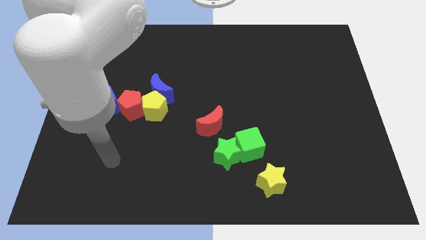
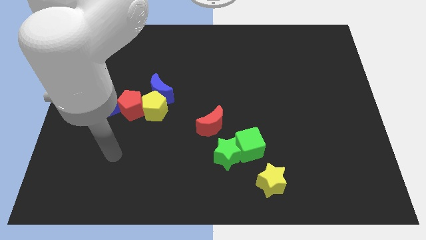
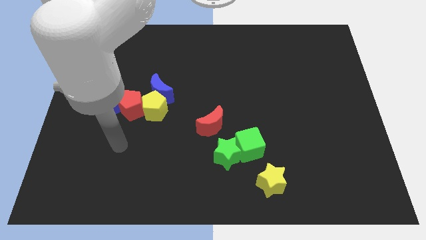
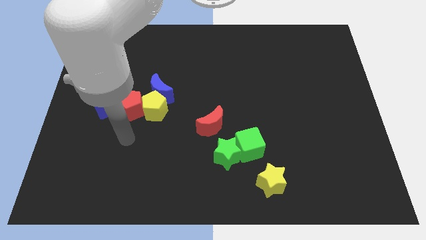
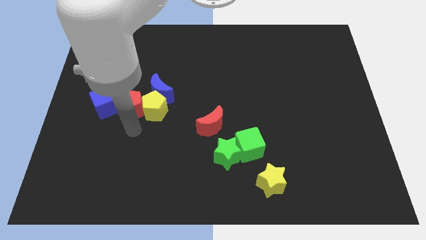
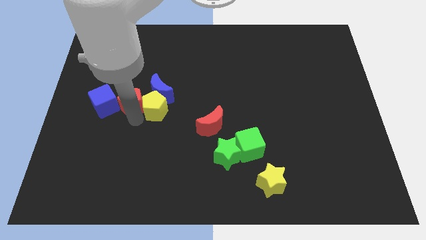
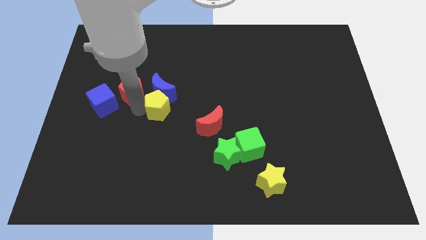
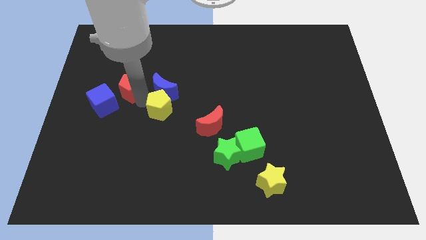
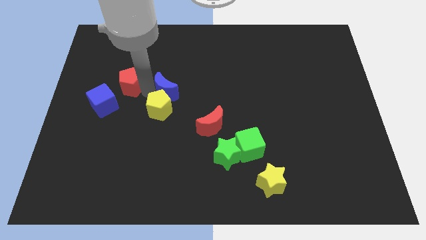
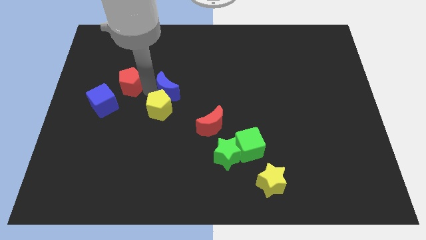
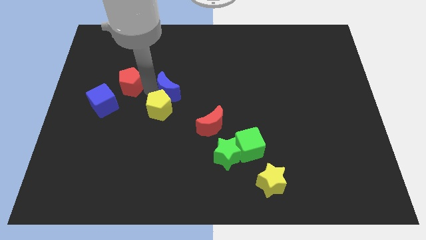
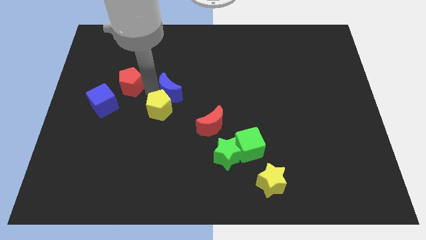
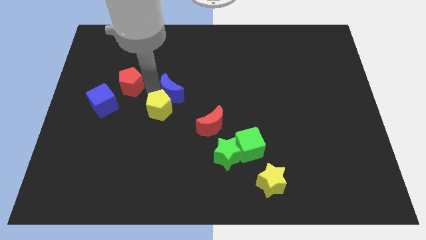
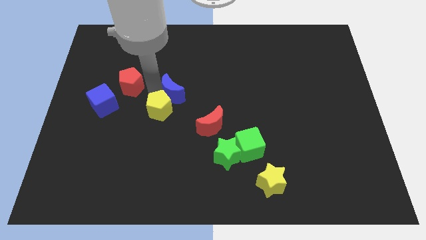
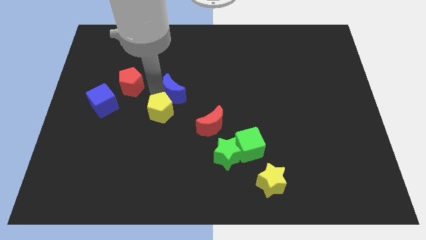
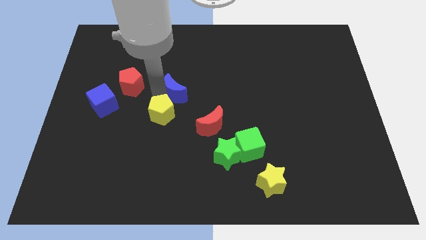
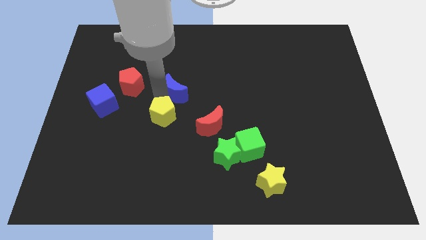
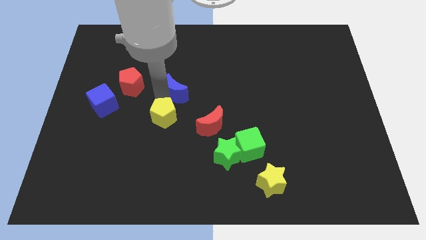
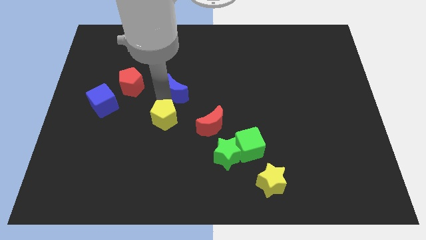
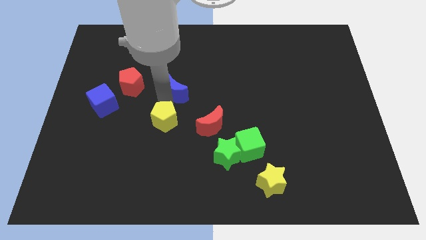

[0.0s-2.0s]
pull the yellow pentagon apart from the blue moon and red pentagon

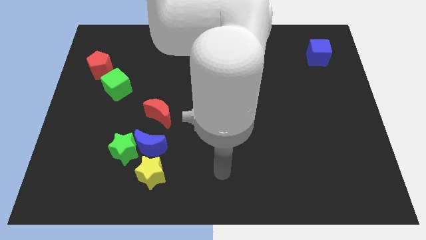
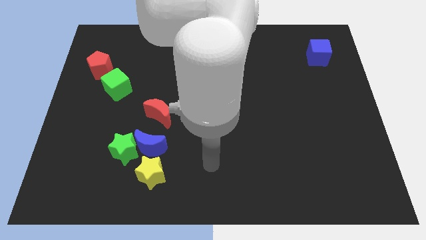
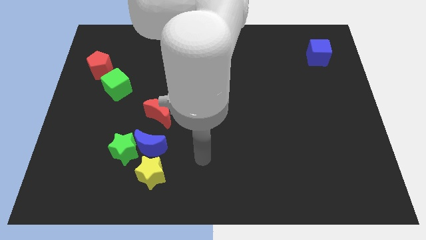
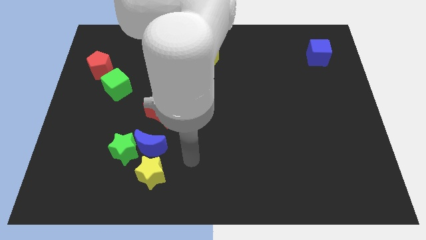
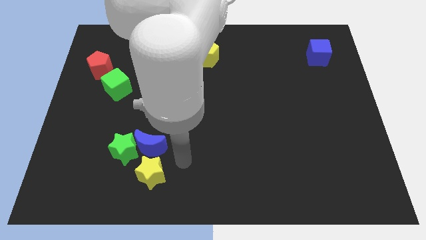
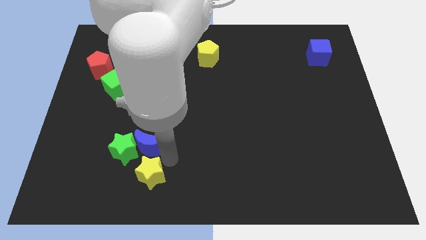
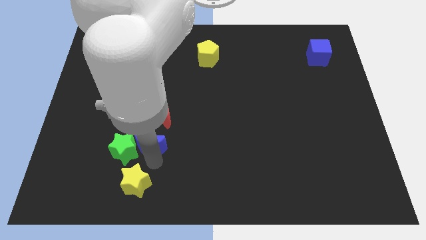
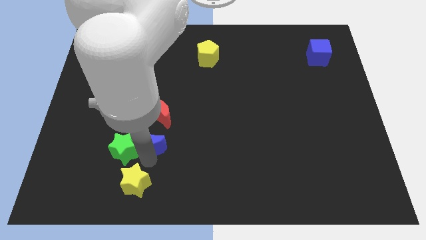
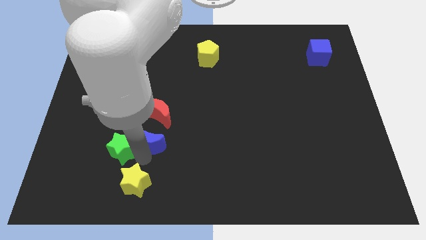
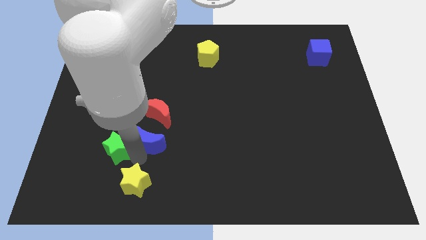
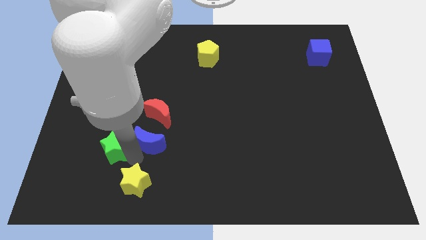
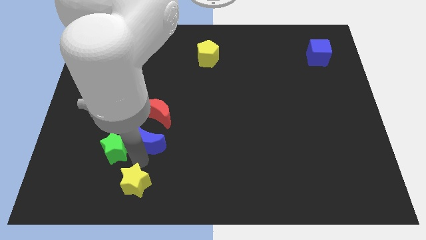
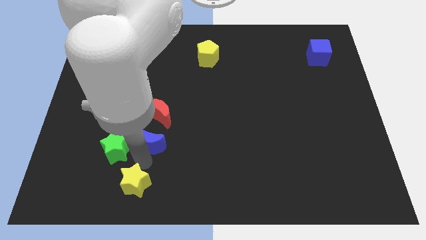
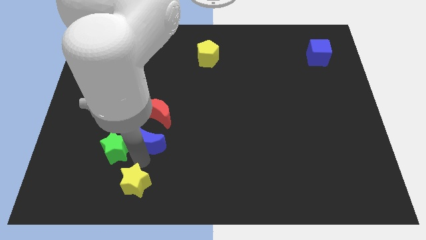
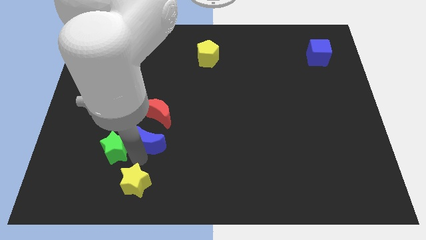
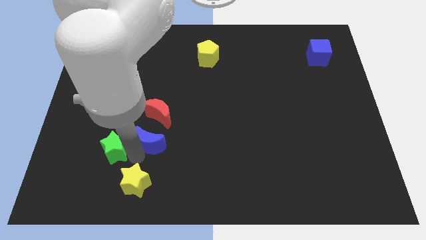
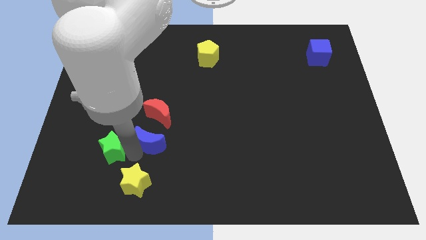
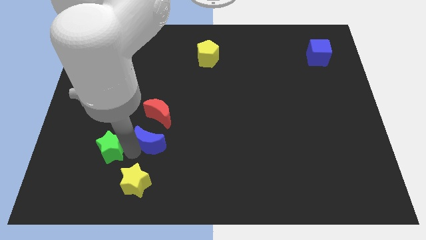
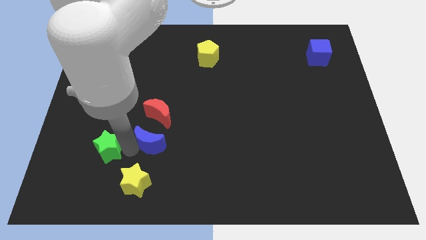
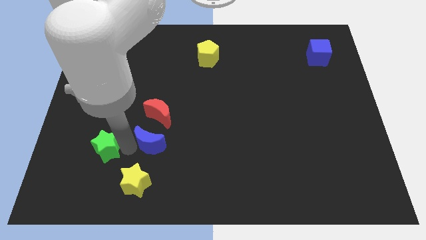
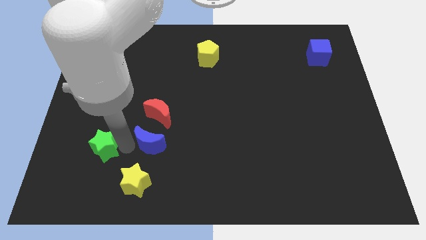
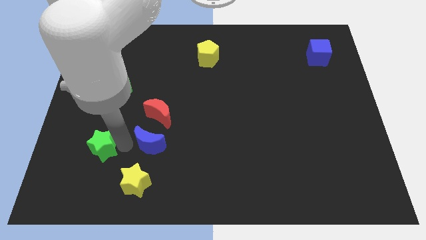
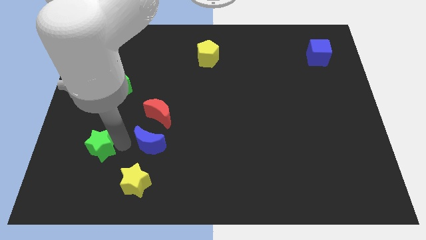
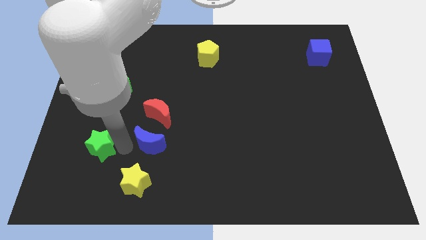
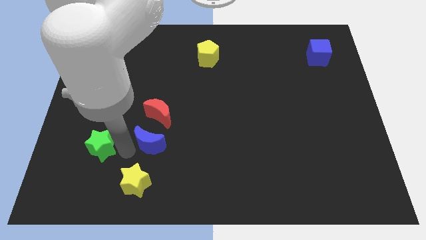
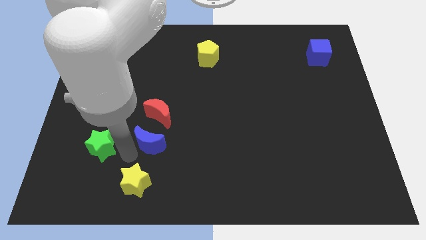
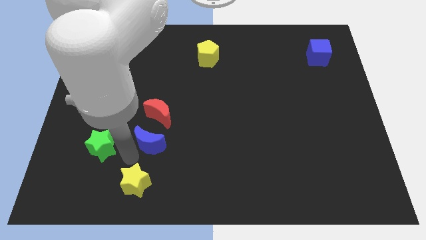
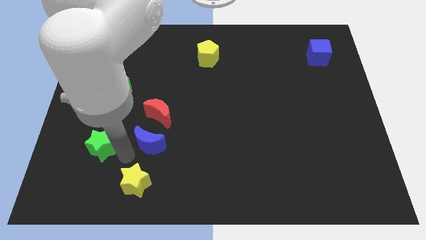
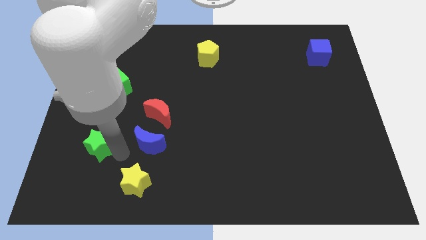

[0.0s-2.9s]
separate the green star from the blue moon and yellow star

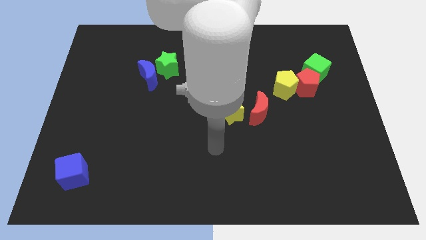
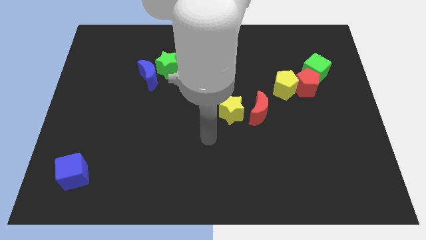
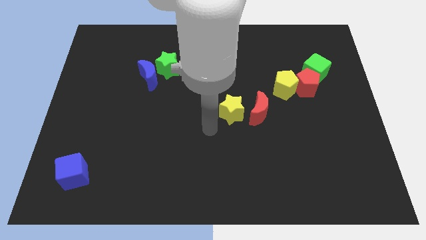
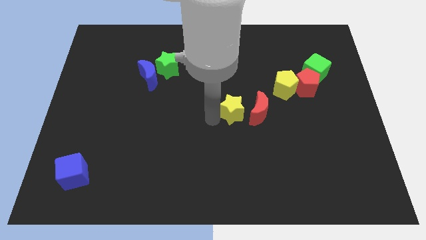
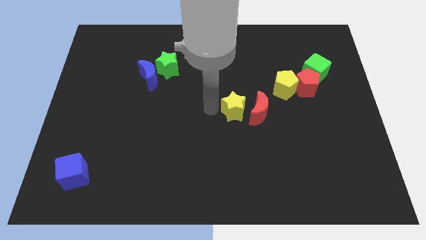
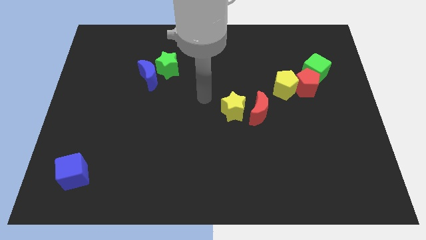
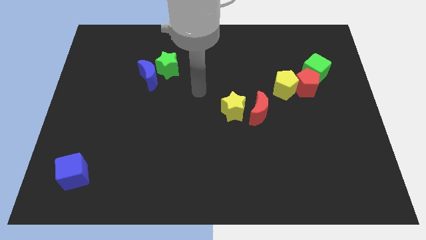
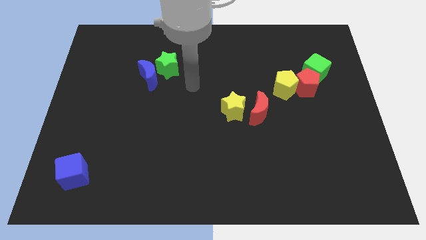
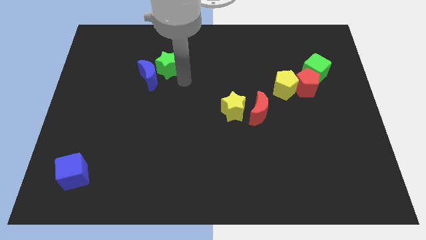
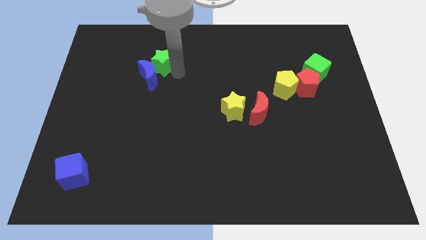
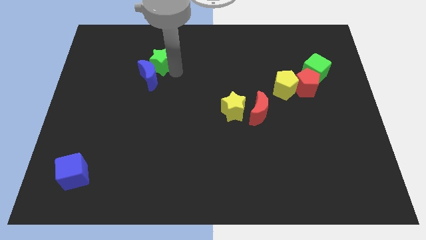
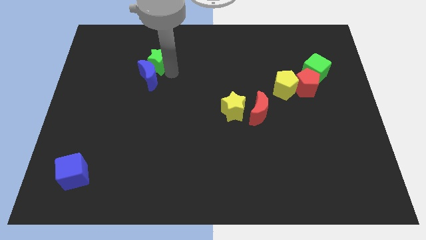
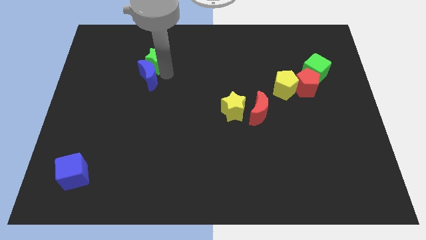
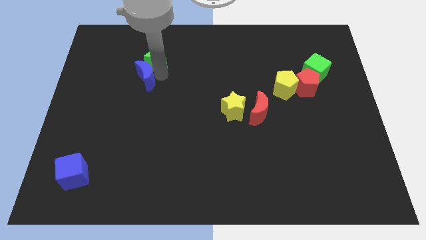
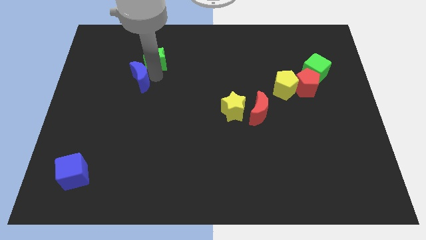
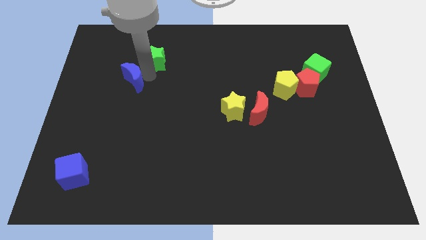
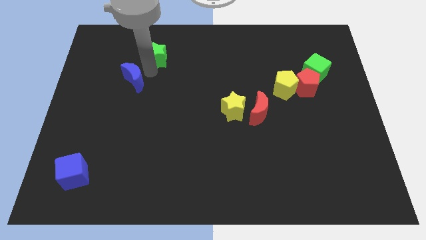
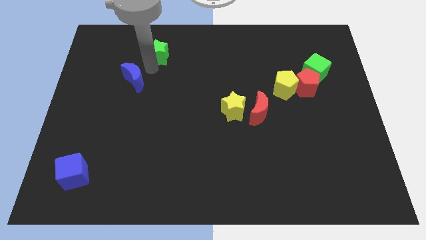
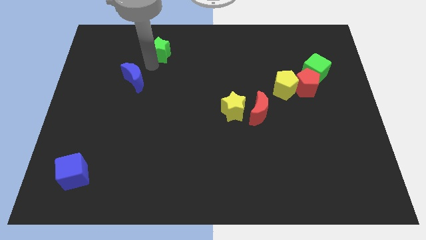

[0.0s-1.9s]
separate the blue moon from the green star

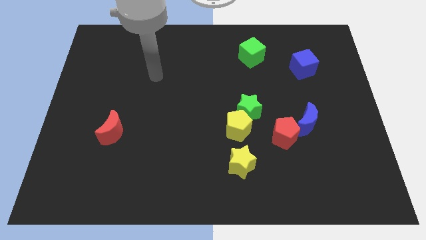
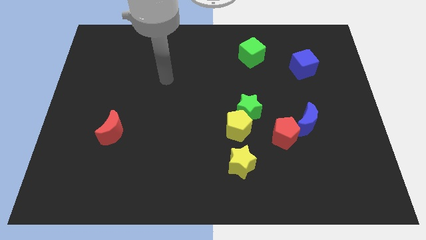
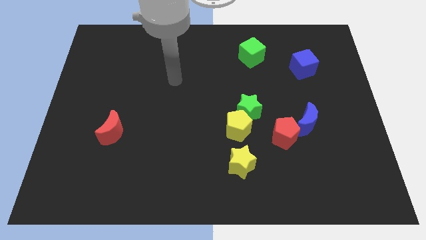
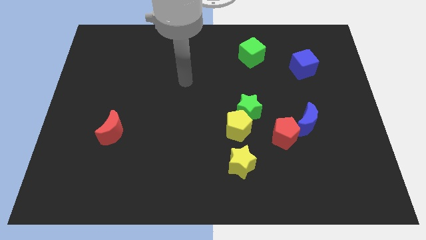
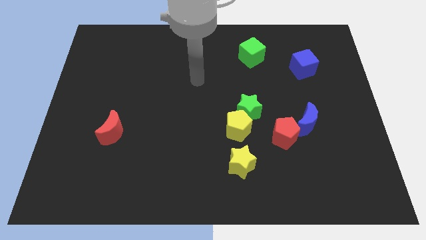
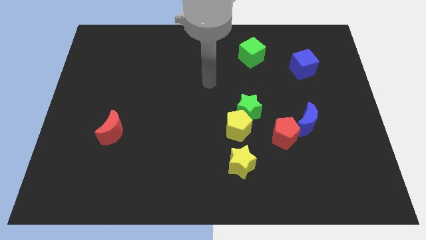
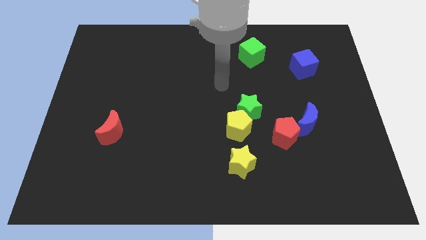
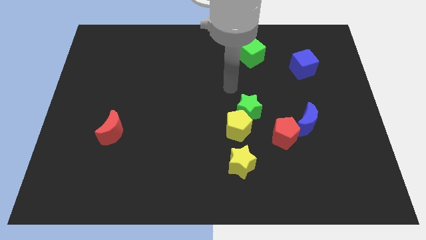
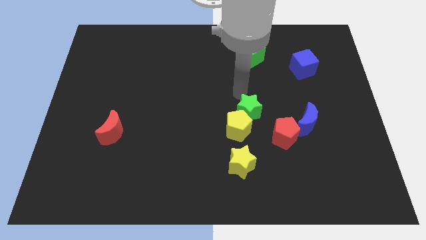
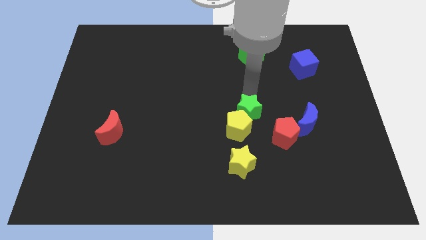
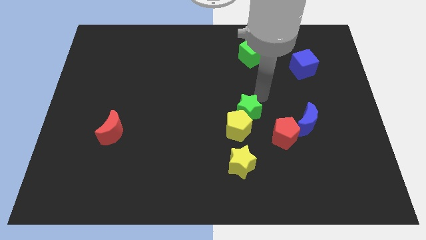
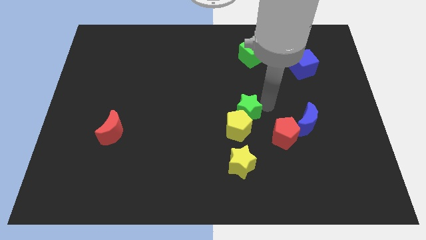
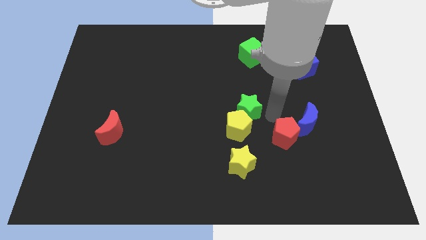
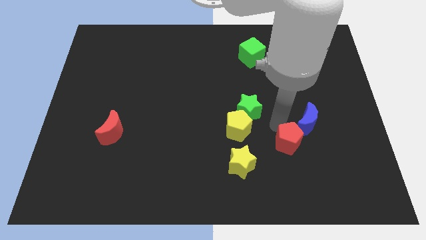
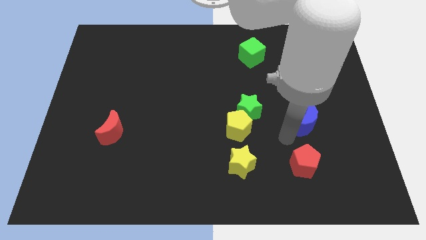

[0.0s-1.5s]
move the blue moon away from the red pentagon

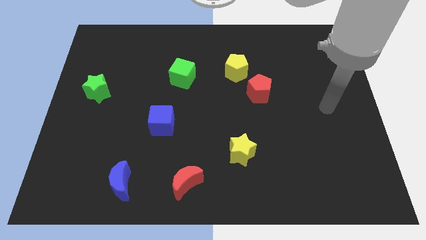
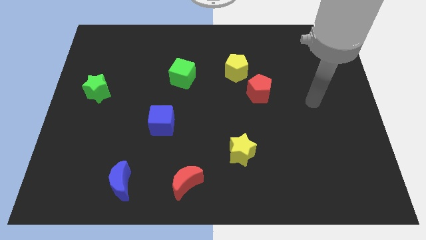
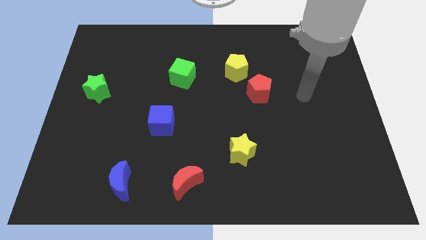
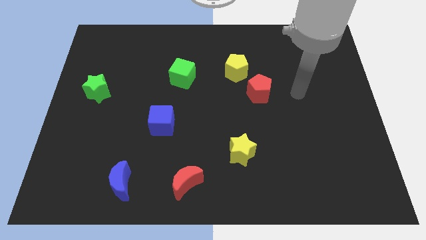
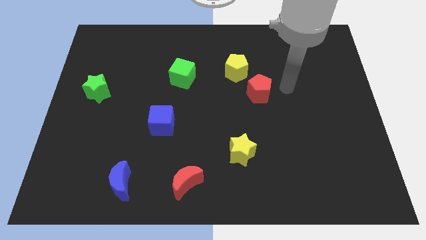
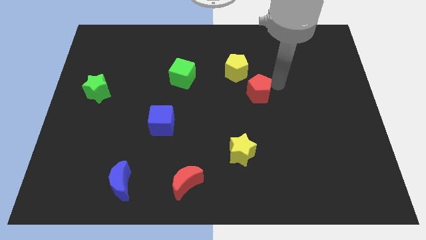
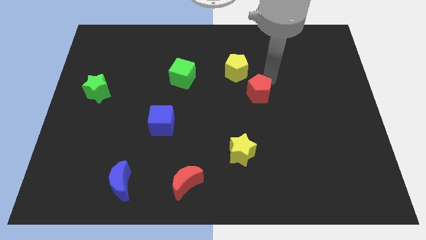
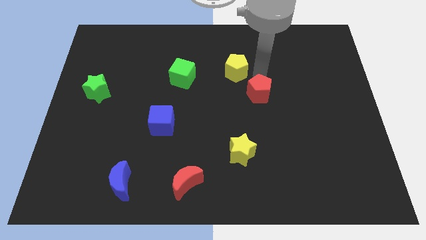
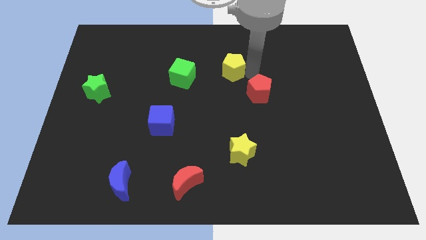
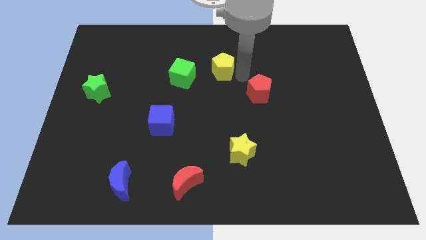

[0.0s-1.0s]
pull the red pentagon apart from the yellow pentagon
